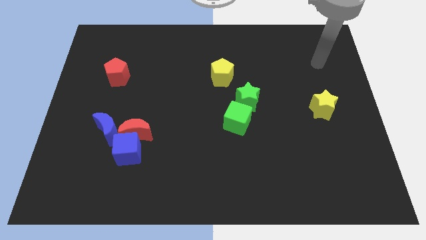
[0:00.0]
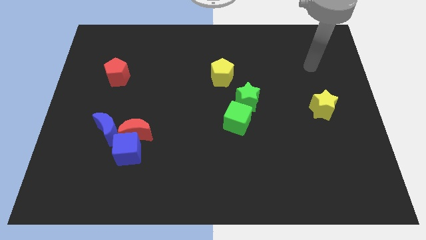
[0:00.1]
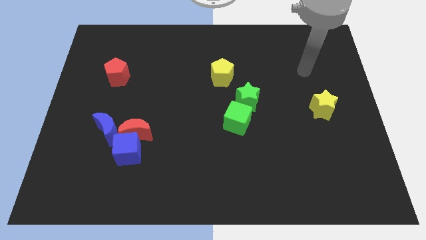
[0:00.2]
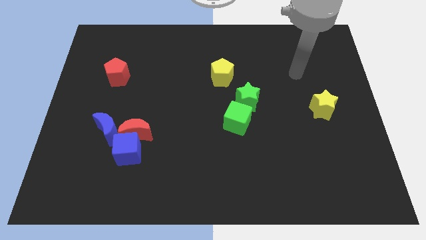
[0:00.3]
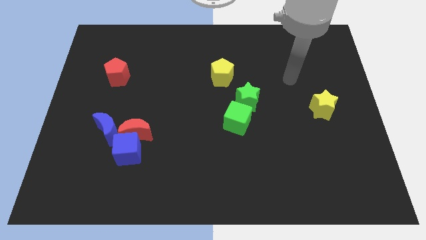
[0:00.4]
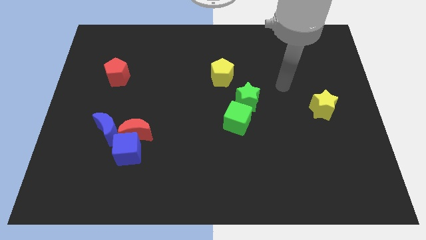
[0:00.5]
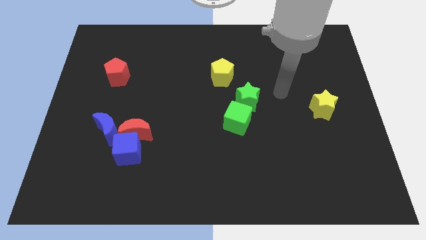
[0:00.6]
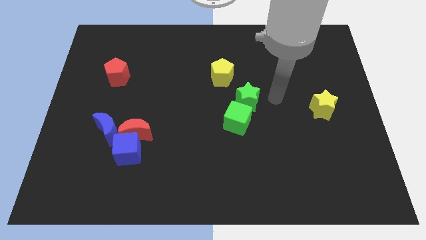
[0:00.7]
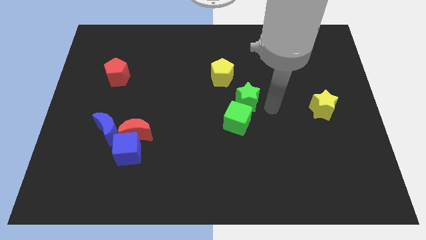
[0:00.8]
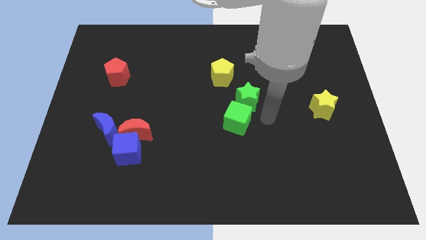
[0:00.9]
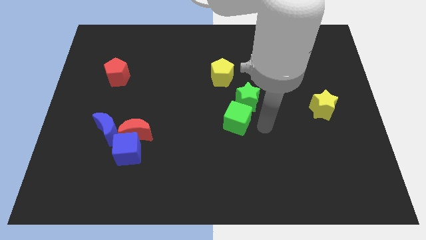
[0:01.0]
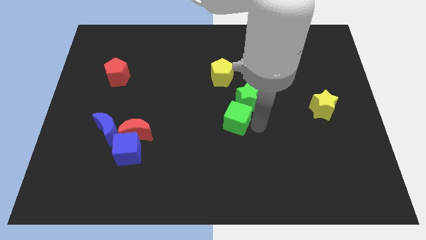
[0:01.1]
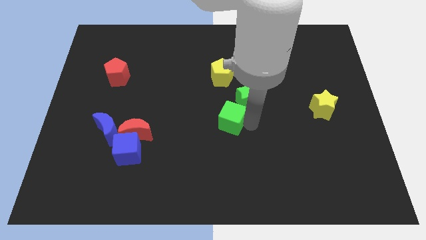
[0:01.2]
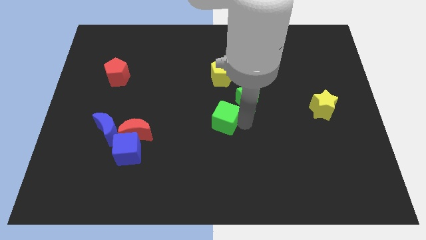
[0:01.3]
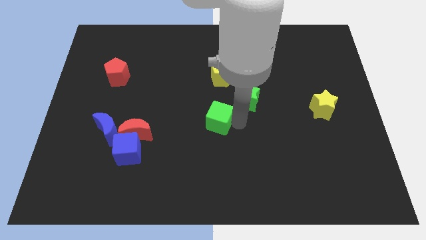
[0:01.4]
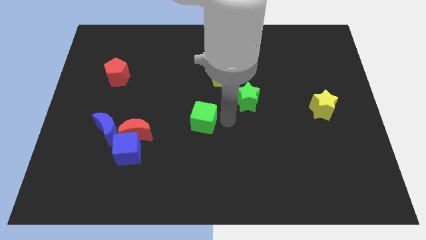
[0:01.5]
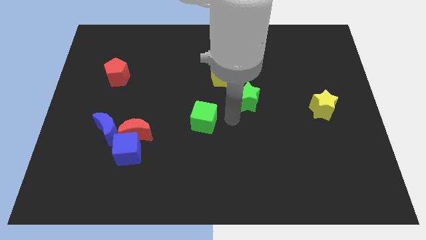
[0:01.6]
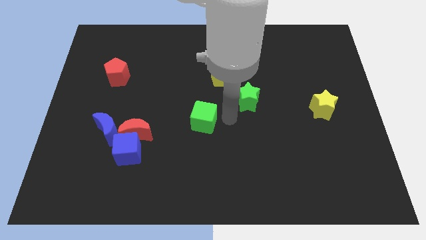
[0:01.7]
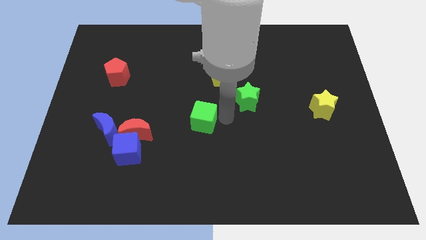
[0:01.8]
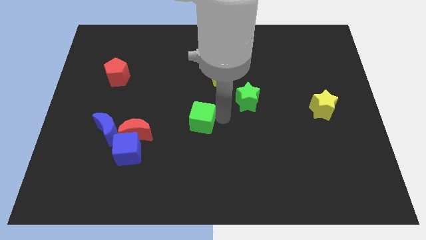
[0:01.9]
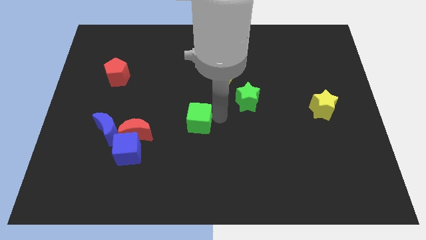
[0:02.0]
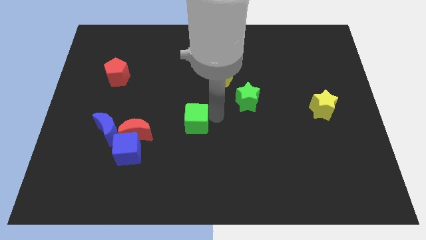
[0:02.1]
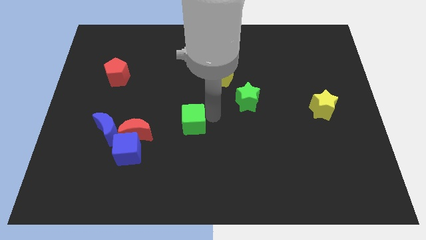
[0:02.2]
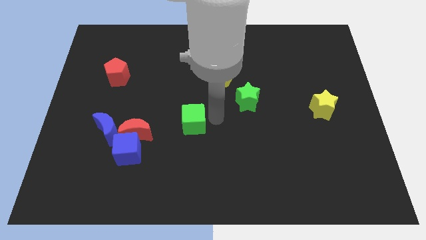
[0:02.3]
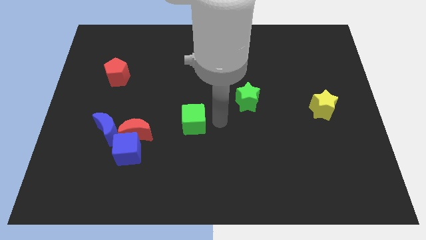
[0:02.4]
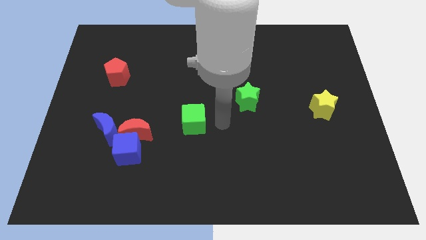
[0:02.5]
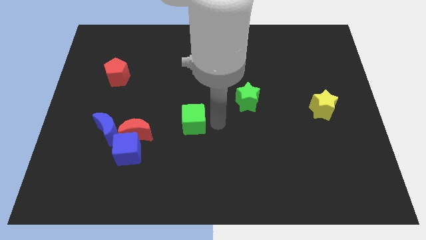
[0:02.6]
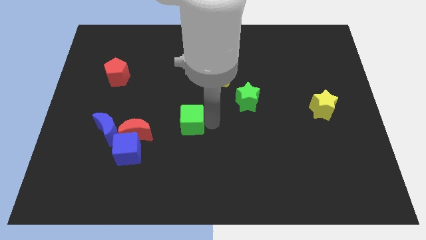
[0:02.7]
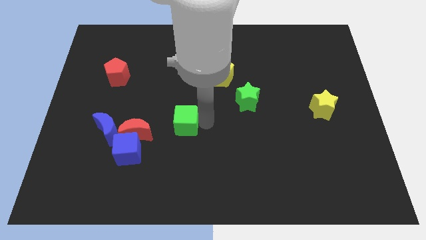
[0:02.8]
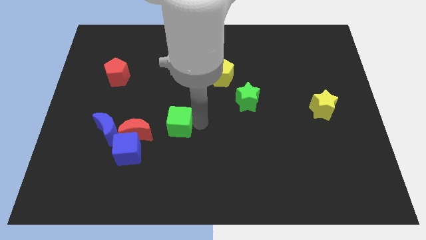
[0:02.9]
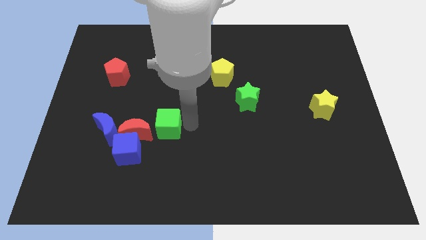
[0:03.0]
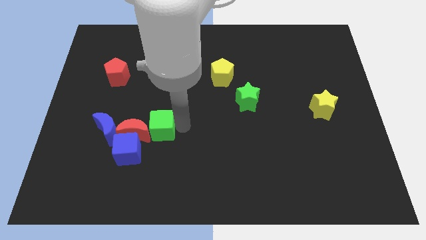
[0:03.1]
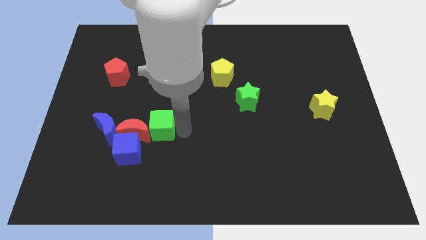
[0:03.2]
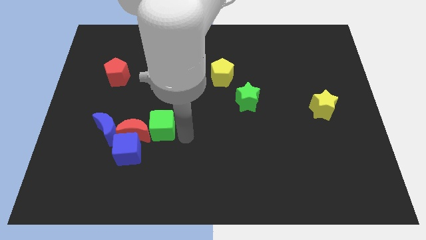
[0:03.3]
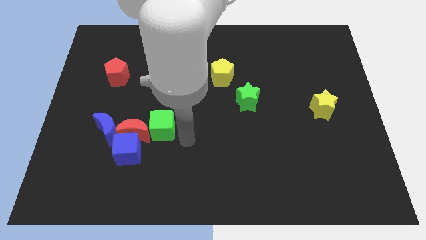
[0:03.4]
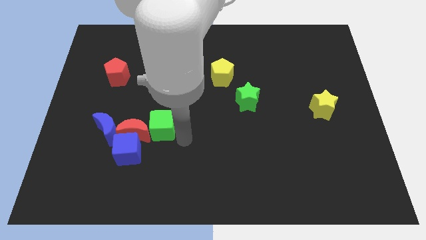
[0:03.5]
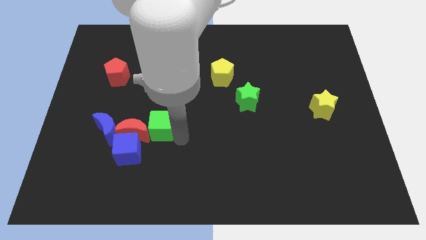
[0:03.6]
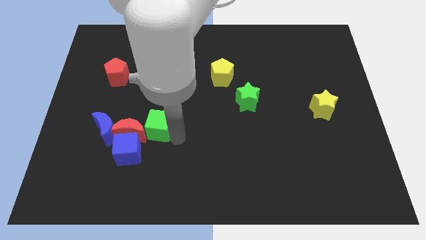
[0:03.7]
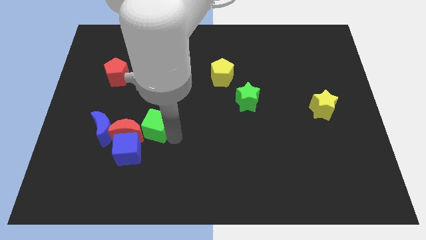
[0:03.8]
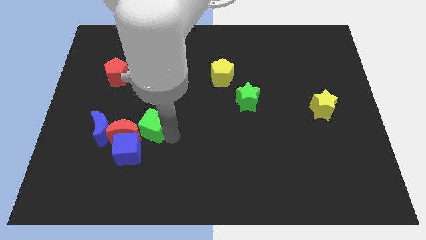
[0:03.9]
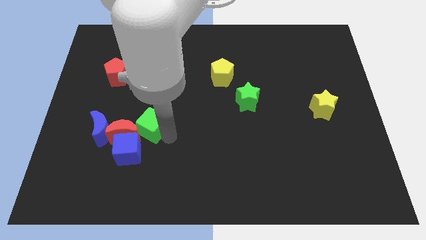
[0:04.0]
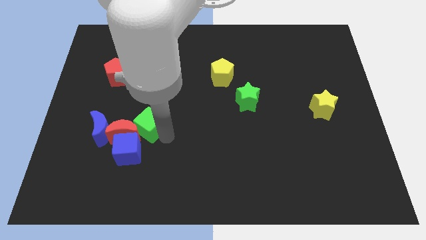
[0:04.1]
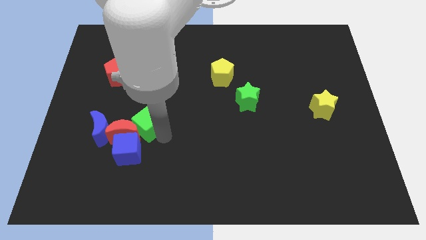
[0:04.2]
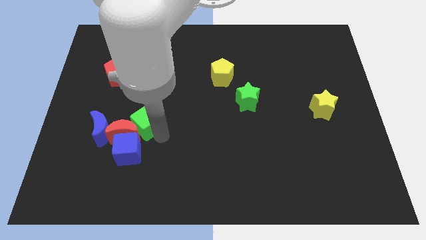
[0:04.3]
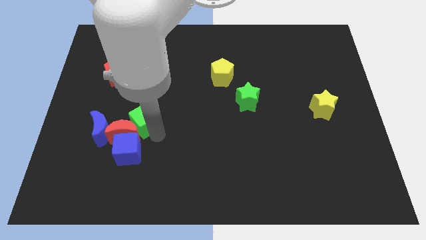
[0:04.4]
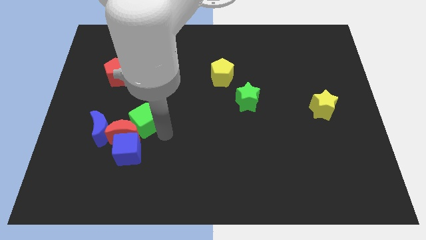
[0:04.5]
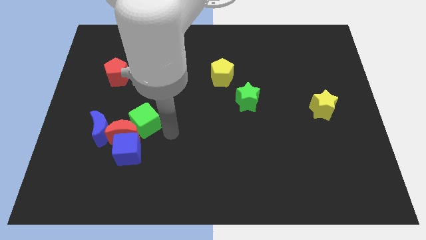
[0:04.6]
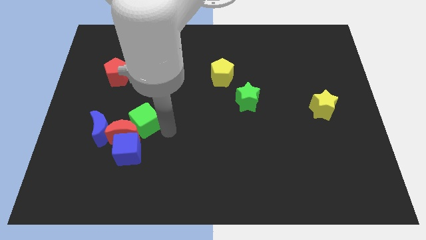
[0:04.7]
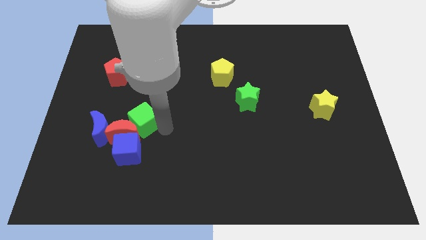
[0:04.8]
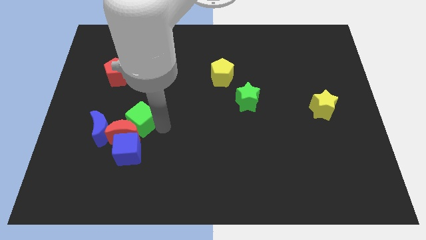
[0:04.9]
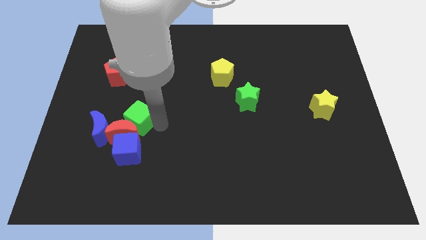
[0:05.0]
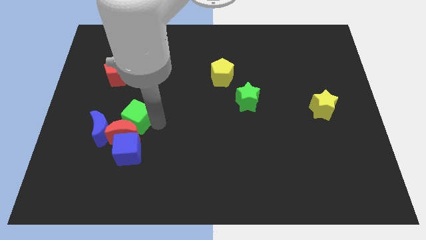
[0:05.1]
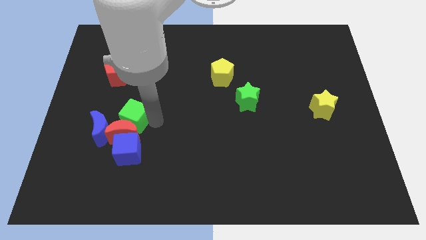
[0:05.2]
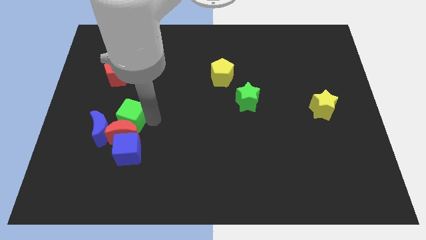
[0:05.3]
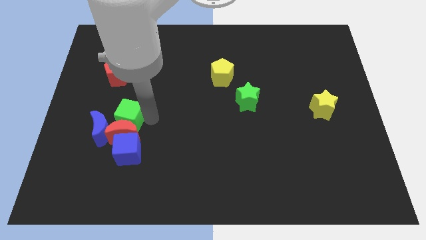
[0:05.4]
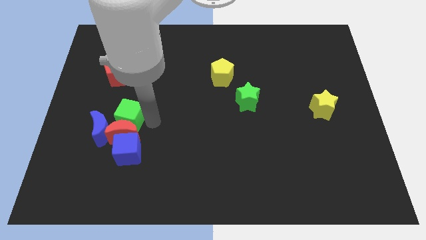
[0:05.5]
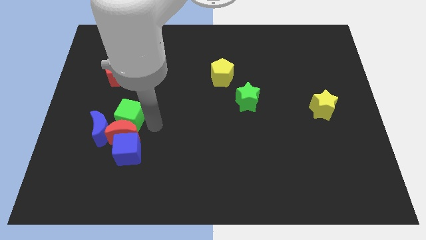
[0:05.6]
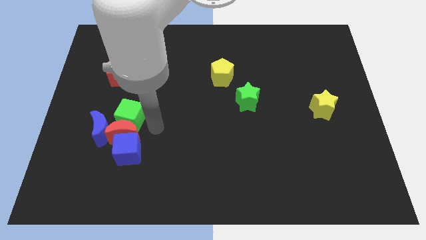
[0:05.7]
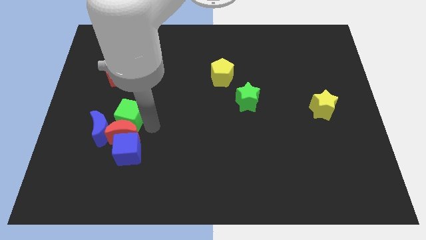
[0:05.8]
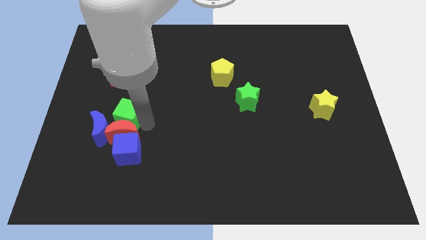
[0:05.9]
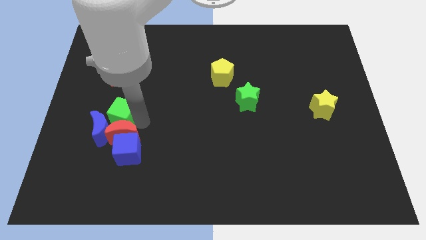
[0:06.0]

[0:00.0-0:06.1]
slide the green cube to the blue moon

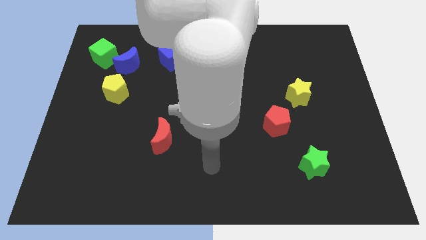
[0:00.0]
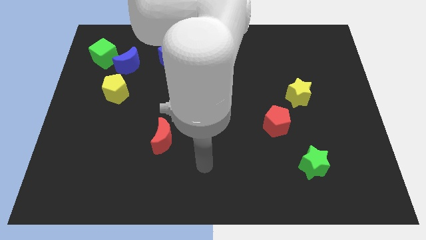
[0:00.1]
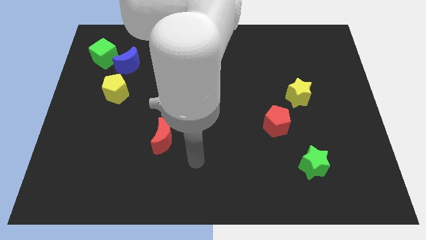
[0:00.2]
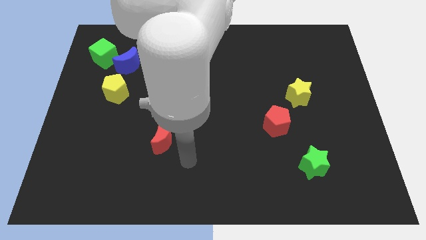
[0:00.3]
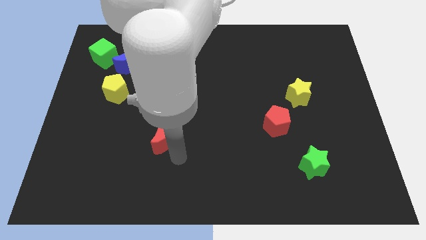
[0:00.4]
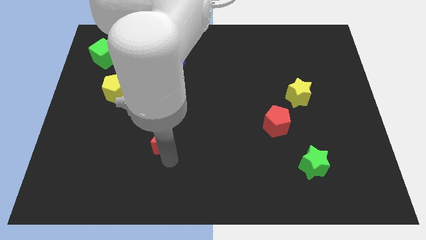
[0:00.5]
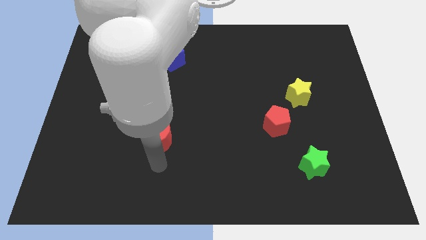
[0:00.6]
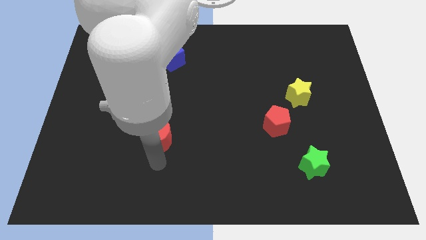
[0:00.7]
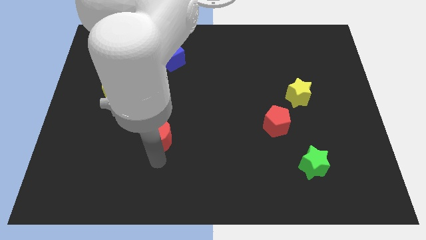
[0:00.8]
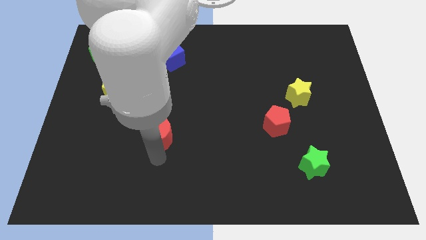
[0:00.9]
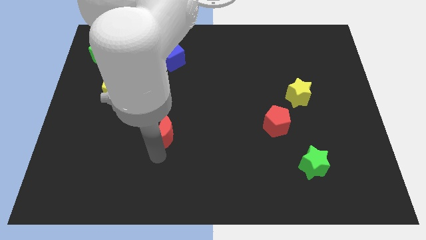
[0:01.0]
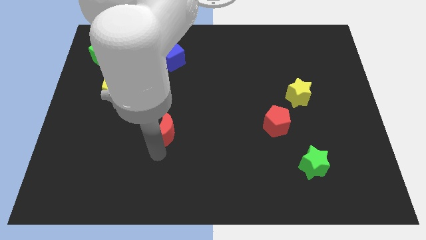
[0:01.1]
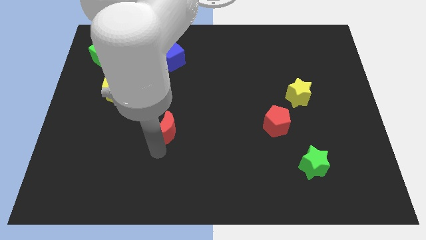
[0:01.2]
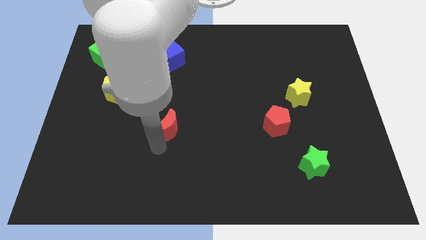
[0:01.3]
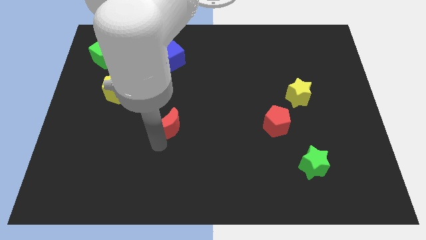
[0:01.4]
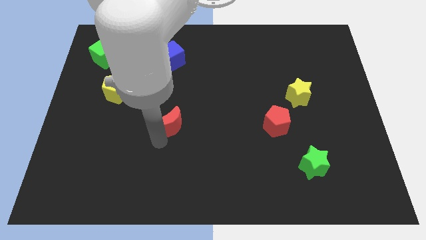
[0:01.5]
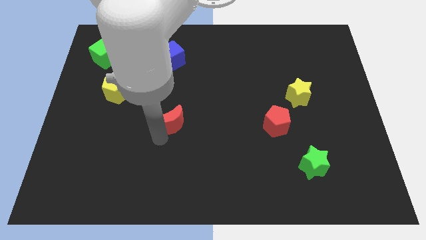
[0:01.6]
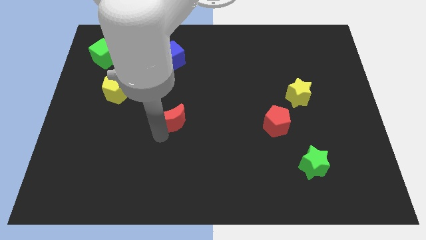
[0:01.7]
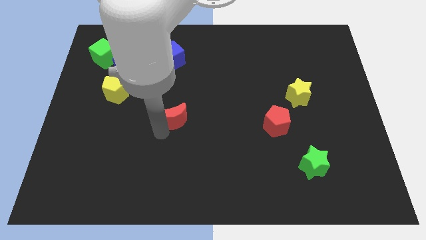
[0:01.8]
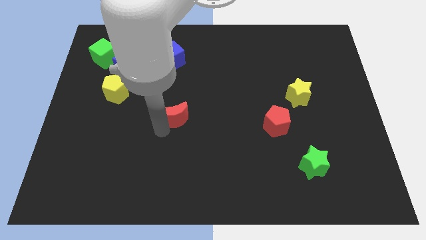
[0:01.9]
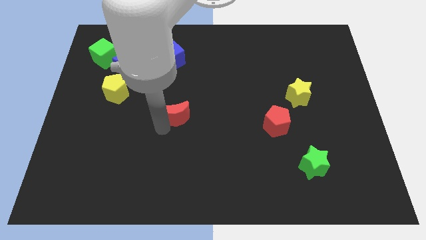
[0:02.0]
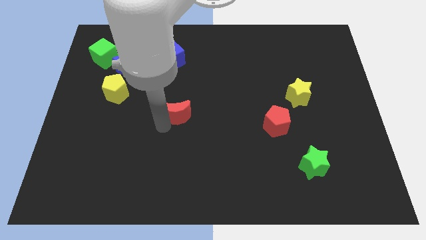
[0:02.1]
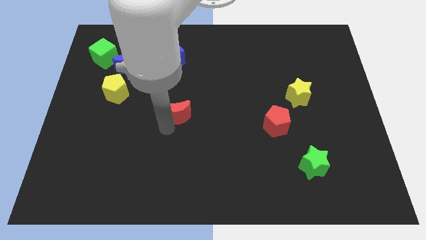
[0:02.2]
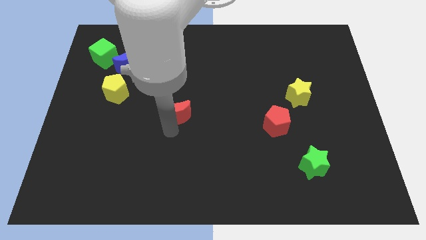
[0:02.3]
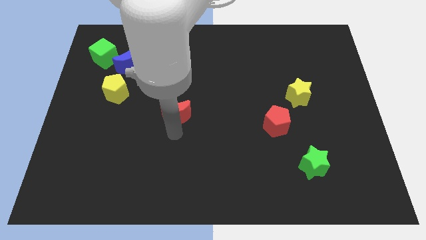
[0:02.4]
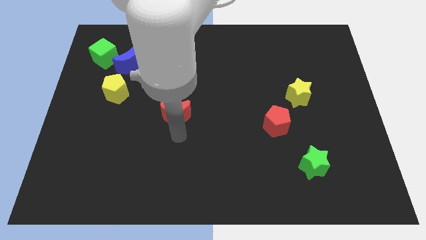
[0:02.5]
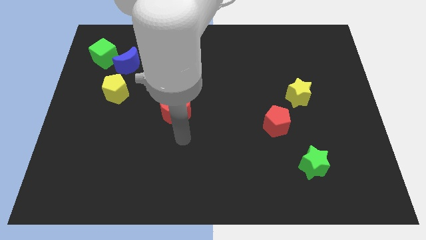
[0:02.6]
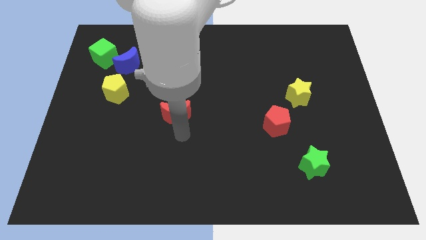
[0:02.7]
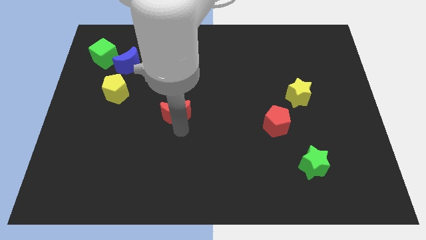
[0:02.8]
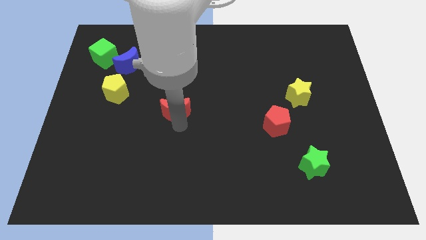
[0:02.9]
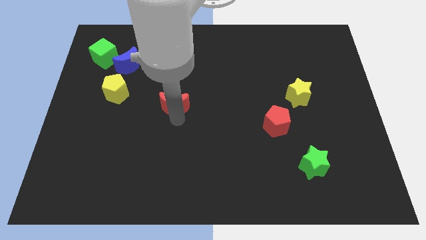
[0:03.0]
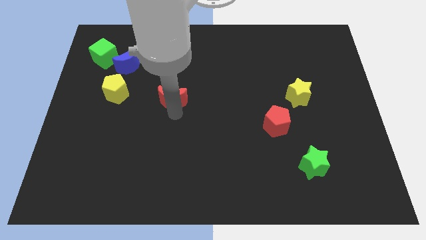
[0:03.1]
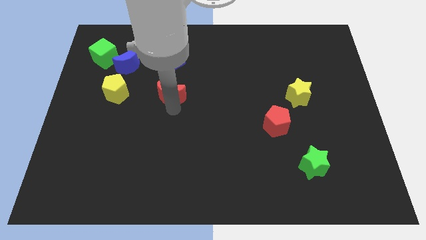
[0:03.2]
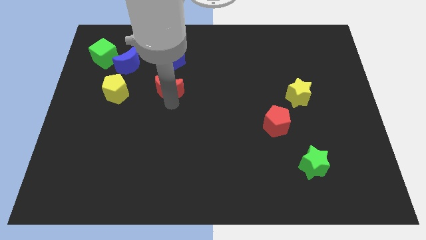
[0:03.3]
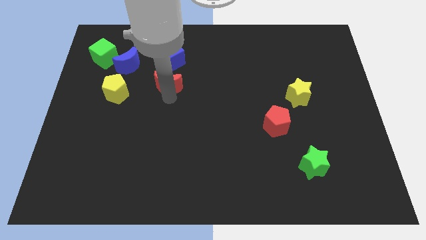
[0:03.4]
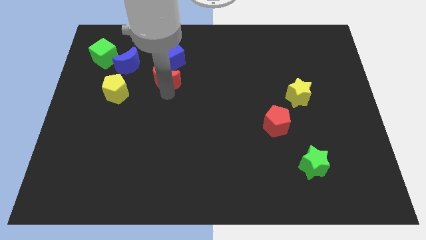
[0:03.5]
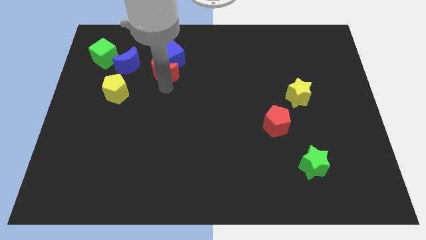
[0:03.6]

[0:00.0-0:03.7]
push the red moon towards the blue cube
